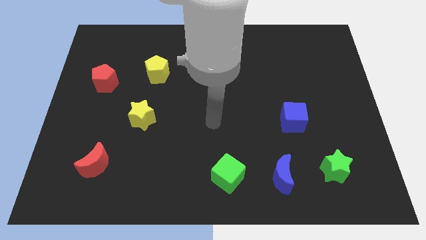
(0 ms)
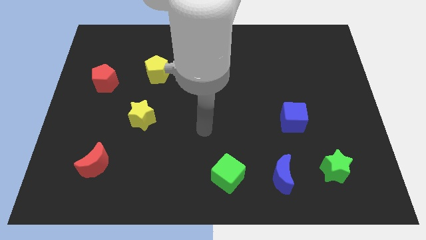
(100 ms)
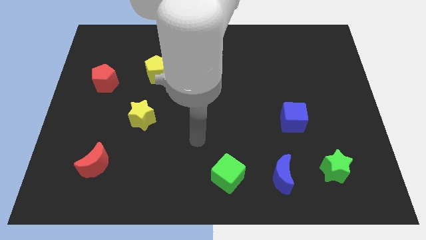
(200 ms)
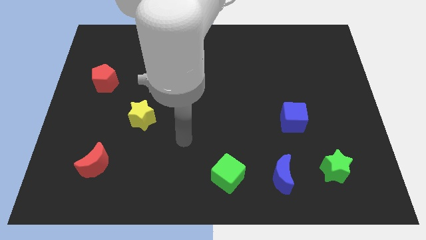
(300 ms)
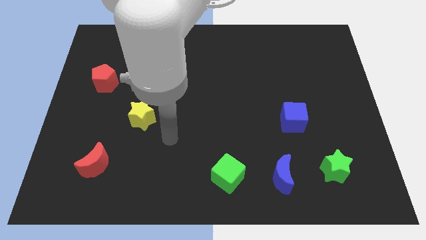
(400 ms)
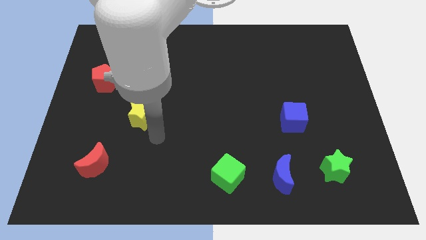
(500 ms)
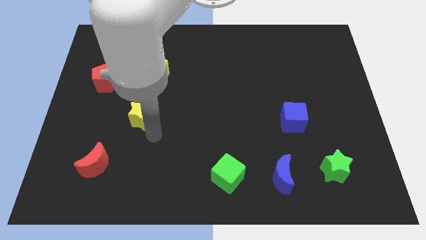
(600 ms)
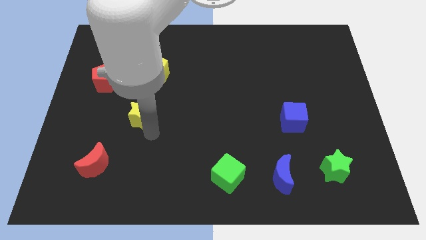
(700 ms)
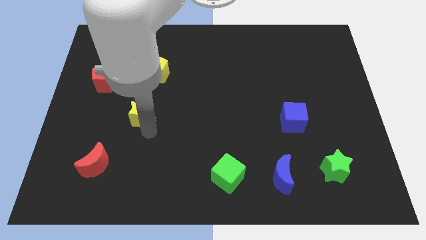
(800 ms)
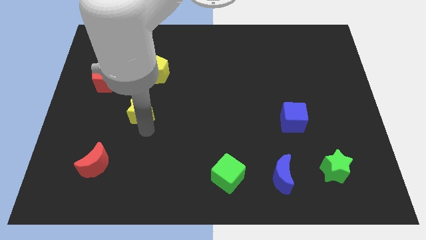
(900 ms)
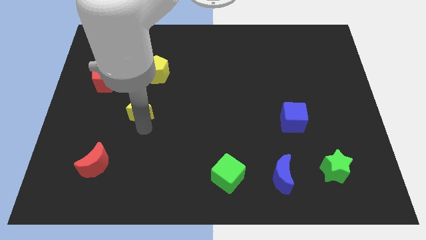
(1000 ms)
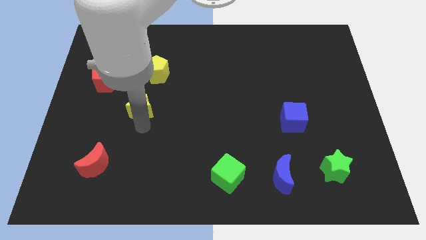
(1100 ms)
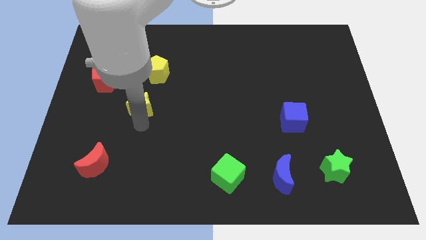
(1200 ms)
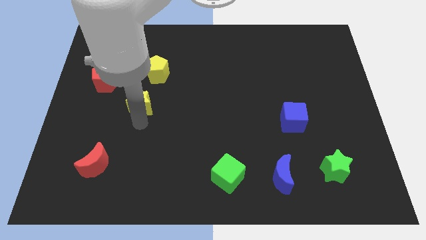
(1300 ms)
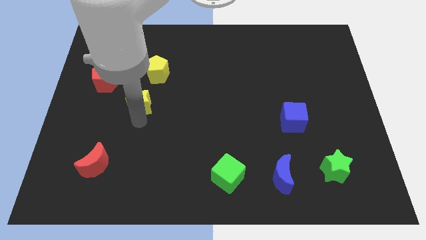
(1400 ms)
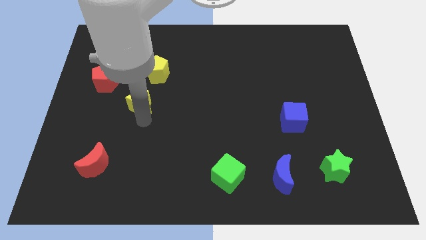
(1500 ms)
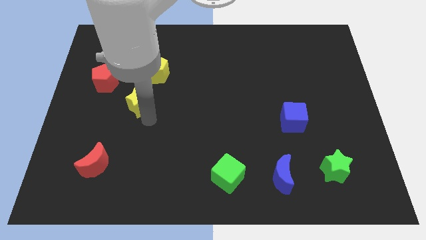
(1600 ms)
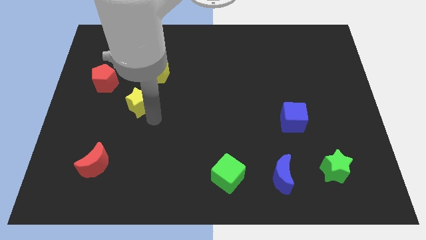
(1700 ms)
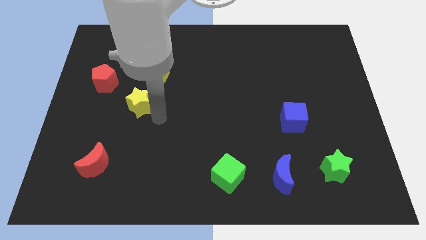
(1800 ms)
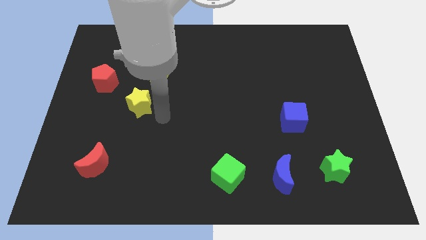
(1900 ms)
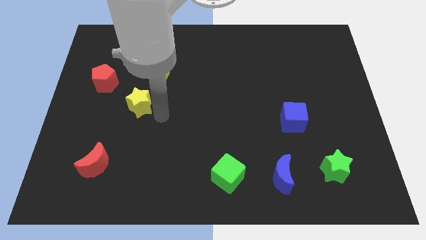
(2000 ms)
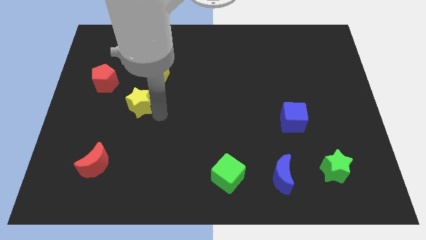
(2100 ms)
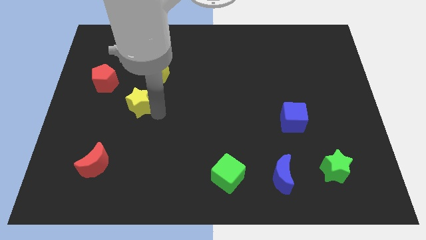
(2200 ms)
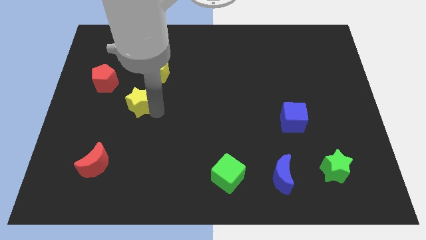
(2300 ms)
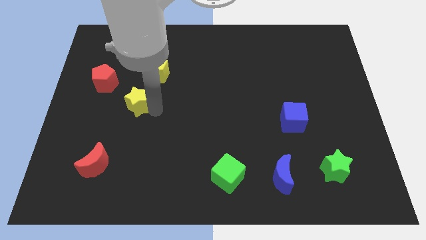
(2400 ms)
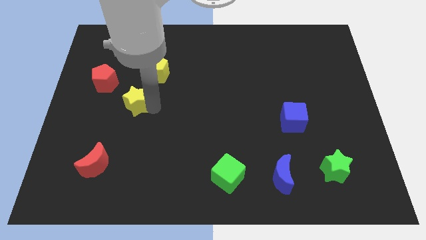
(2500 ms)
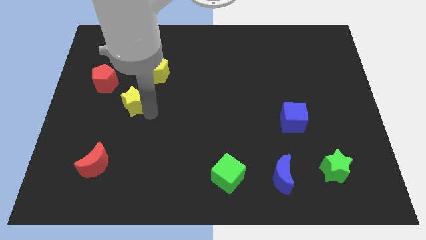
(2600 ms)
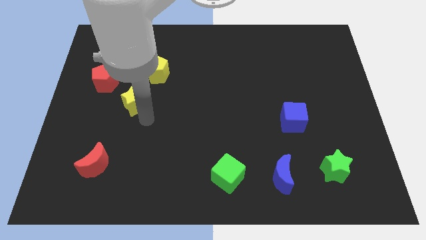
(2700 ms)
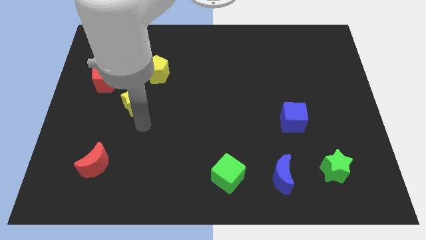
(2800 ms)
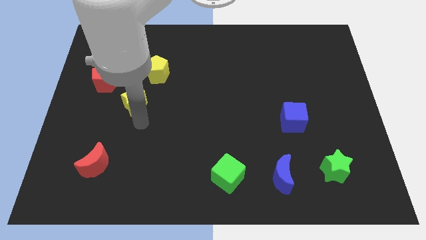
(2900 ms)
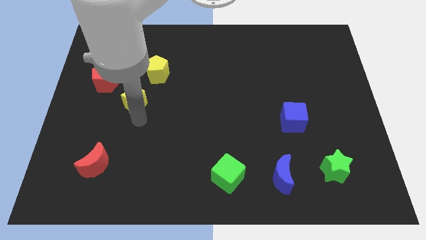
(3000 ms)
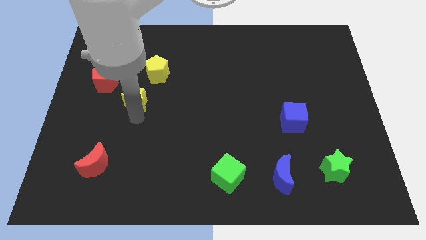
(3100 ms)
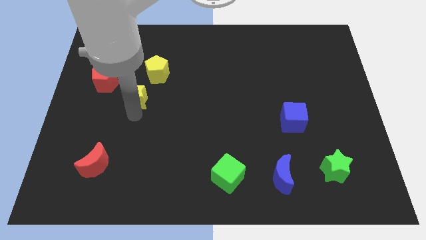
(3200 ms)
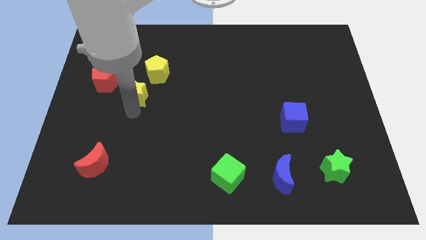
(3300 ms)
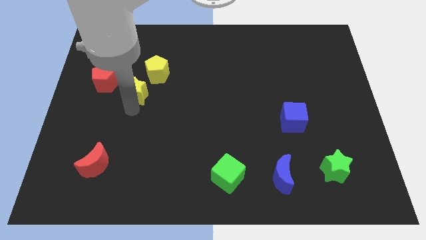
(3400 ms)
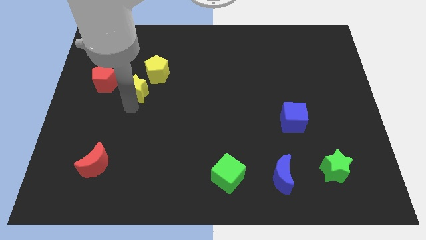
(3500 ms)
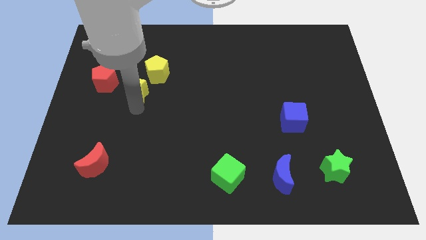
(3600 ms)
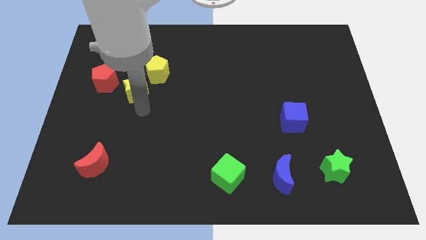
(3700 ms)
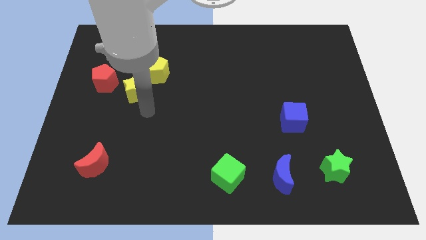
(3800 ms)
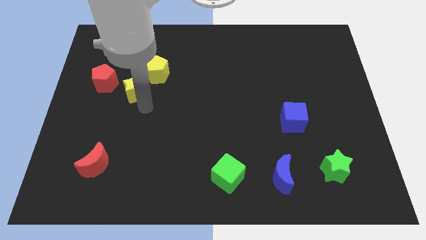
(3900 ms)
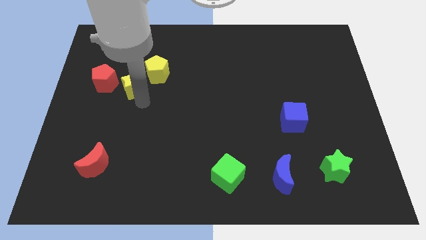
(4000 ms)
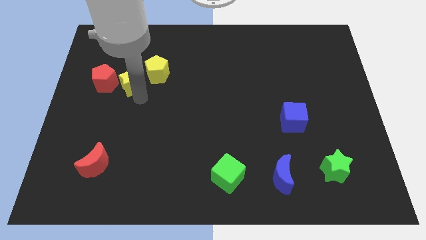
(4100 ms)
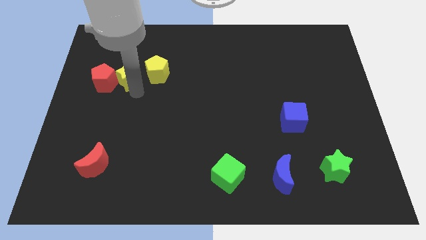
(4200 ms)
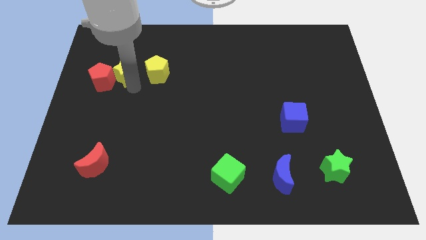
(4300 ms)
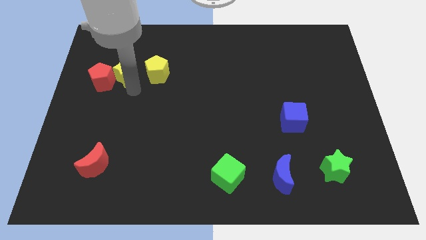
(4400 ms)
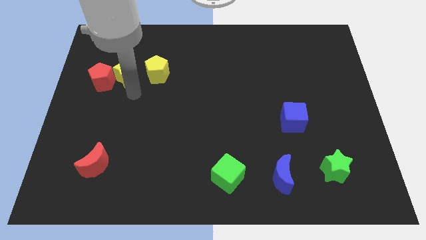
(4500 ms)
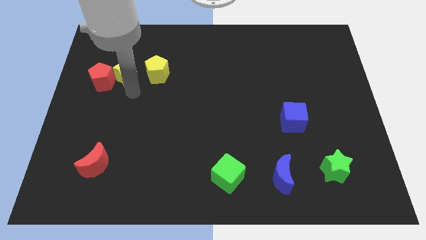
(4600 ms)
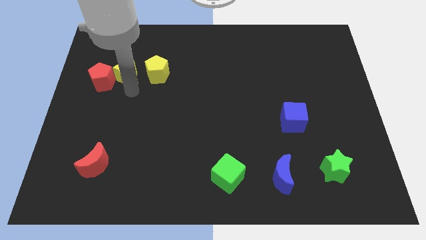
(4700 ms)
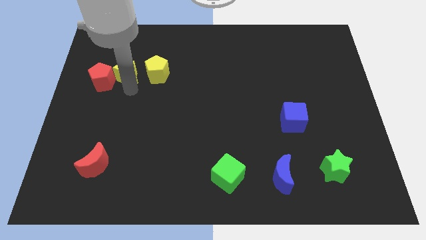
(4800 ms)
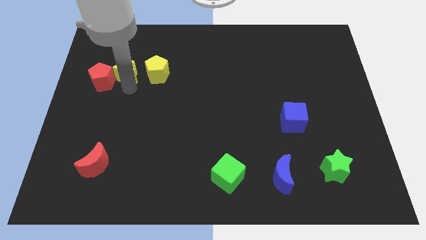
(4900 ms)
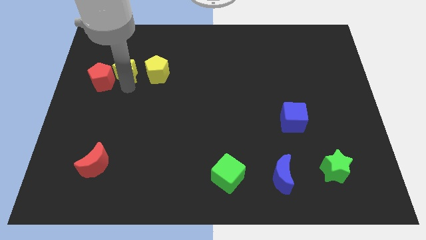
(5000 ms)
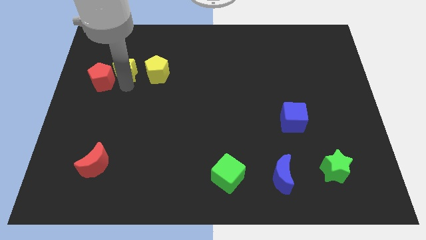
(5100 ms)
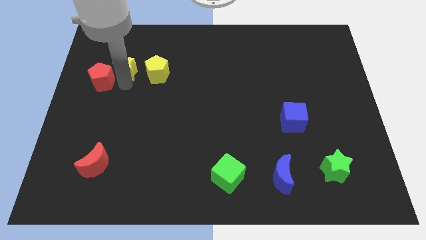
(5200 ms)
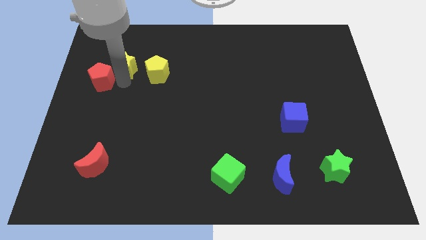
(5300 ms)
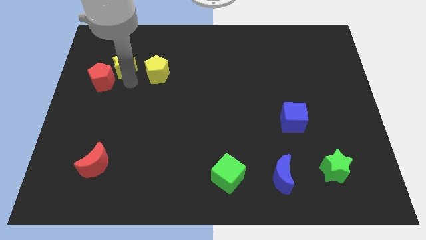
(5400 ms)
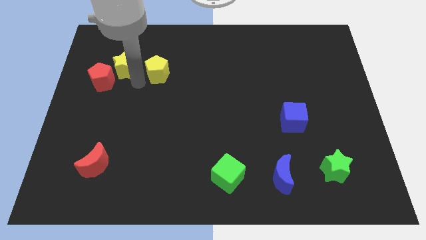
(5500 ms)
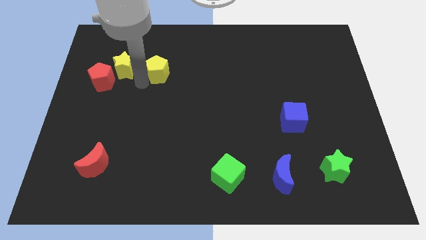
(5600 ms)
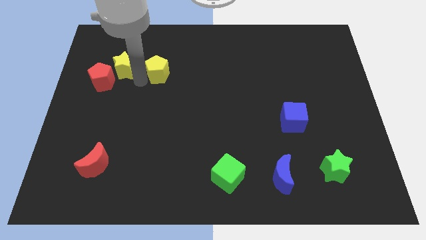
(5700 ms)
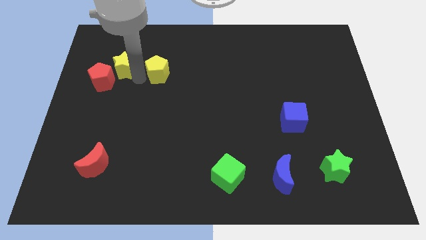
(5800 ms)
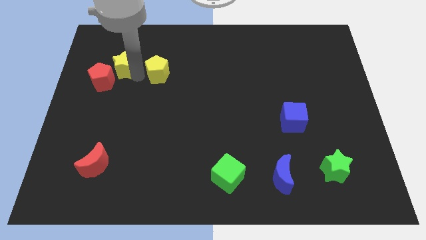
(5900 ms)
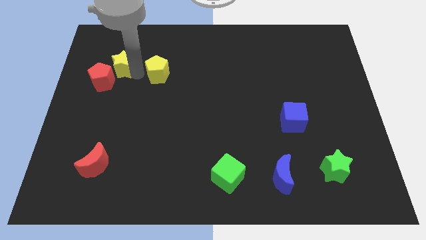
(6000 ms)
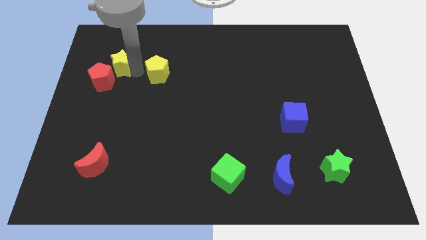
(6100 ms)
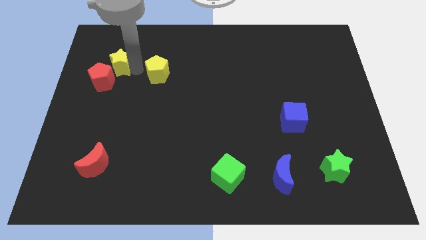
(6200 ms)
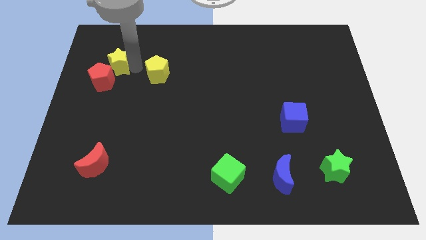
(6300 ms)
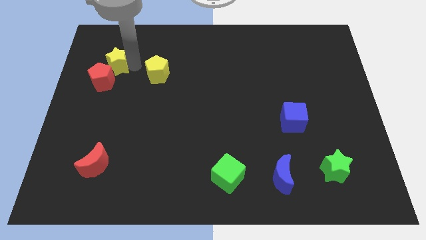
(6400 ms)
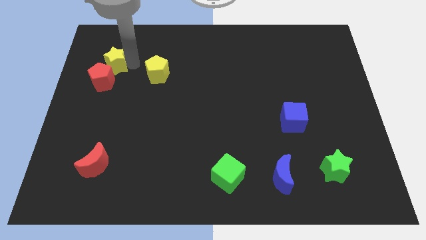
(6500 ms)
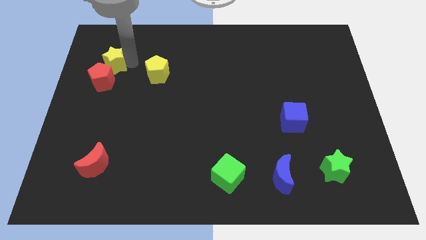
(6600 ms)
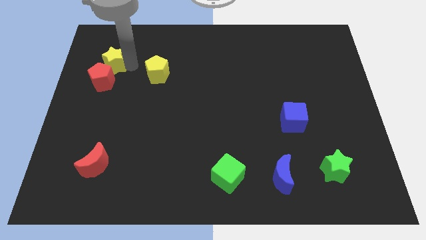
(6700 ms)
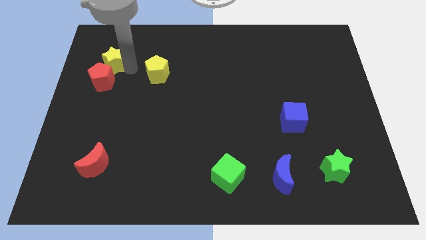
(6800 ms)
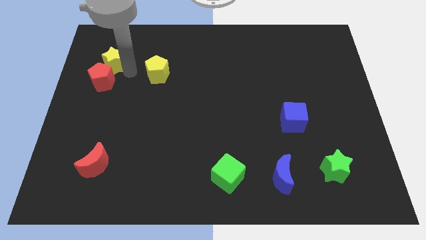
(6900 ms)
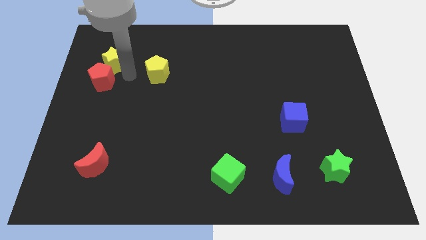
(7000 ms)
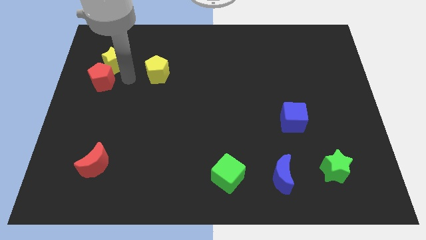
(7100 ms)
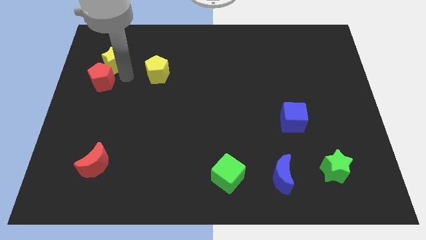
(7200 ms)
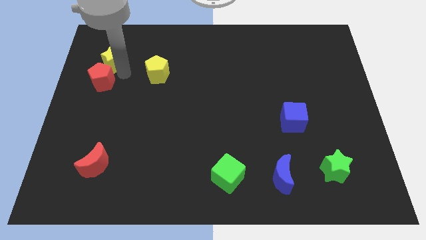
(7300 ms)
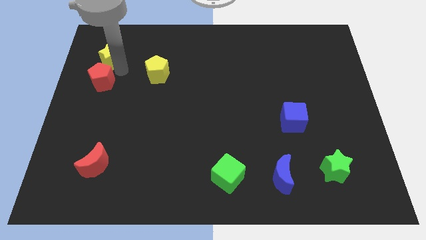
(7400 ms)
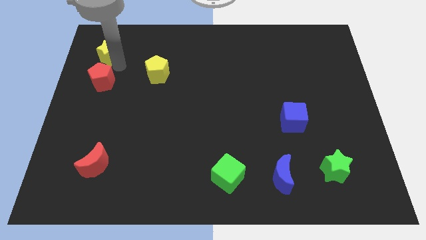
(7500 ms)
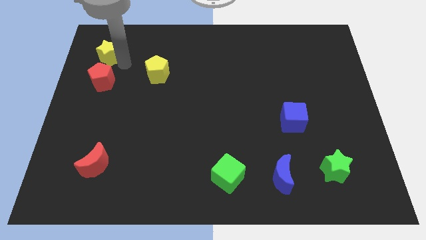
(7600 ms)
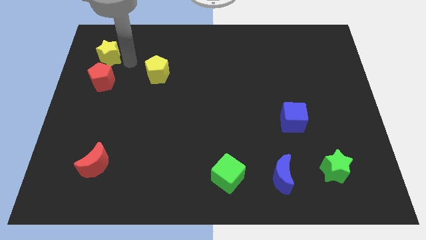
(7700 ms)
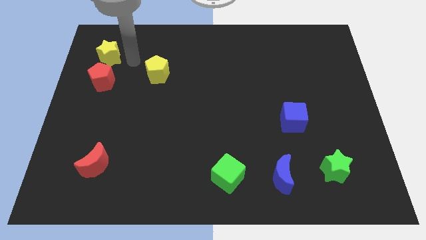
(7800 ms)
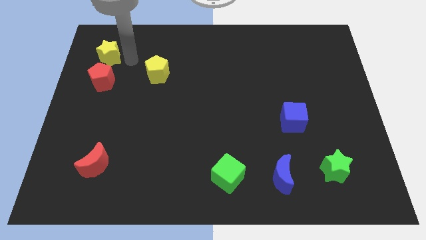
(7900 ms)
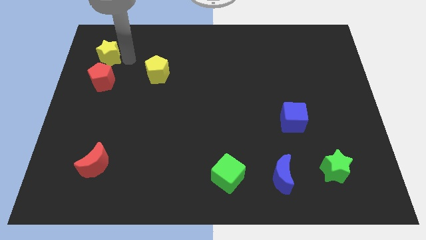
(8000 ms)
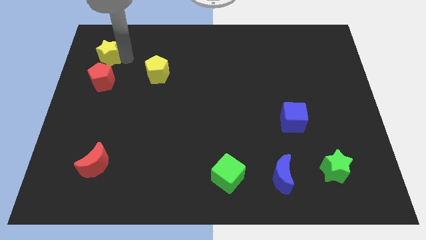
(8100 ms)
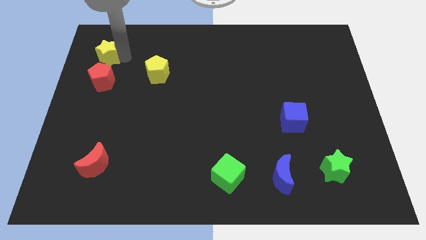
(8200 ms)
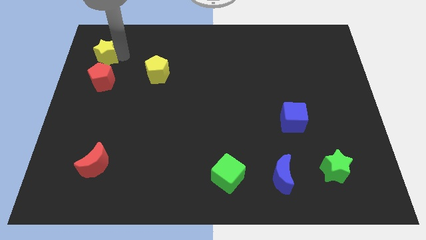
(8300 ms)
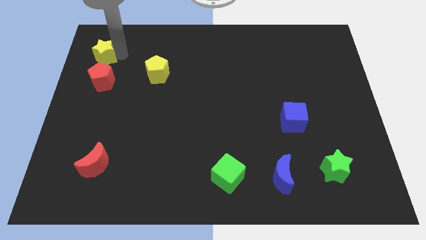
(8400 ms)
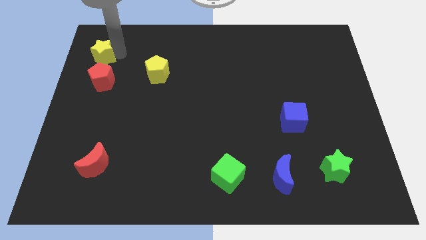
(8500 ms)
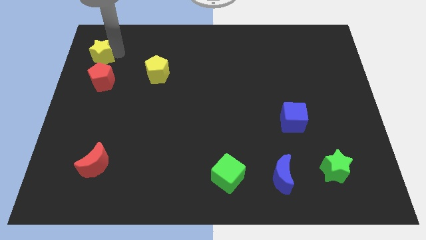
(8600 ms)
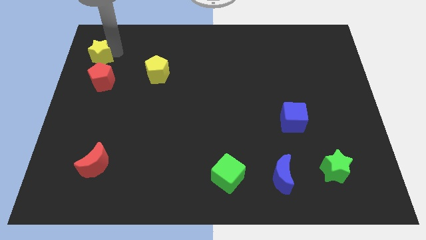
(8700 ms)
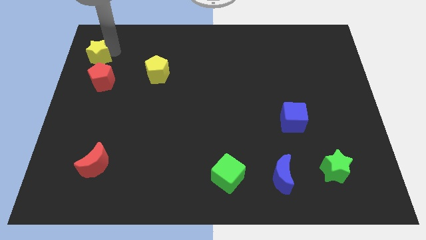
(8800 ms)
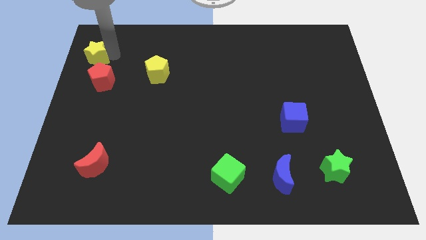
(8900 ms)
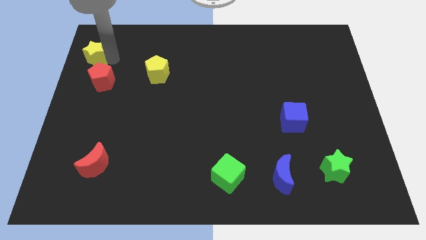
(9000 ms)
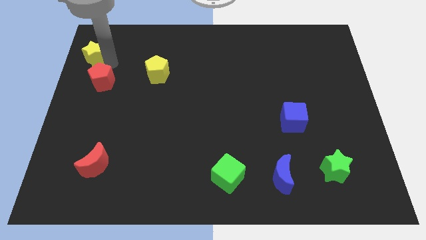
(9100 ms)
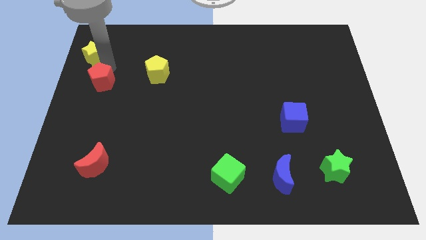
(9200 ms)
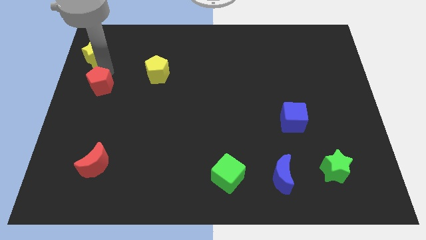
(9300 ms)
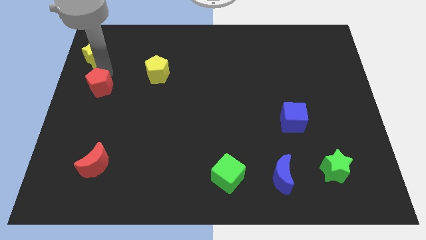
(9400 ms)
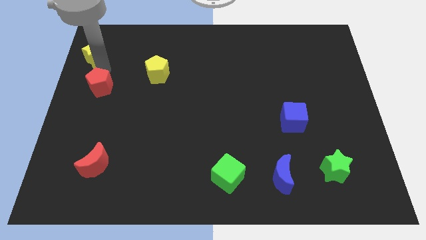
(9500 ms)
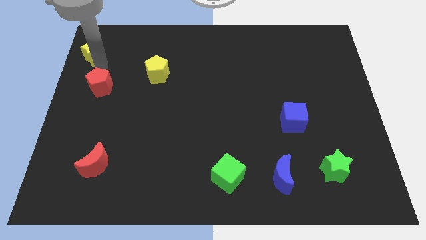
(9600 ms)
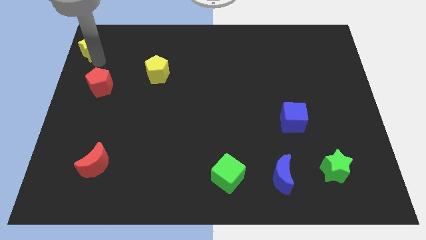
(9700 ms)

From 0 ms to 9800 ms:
slide the yellow star to the upper left corner
